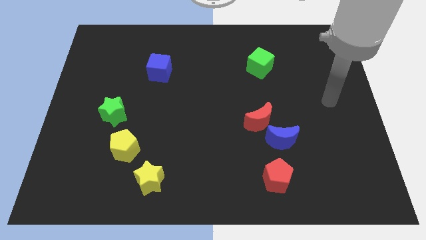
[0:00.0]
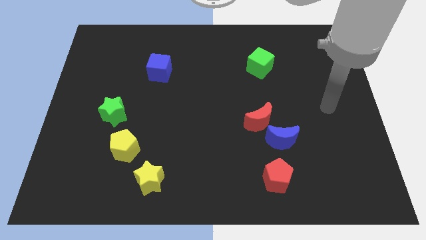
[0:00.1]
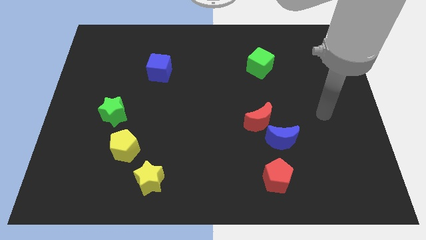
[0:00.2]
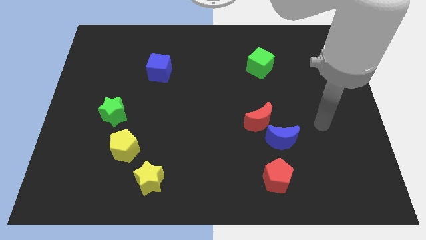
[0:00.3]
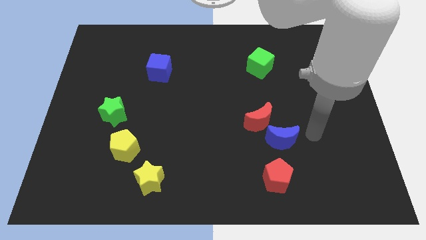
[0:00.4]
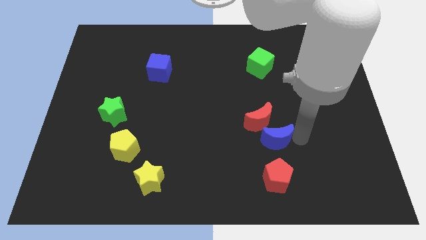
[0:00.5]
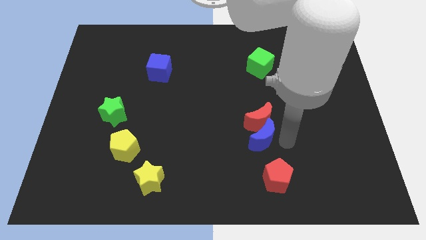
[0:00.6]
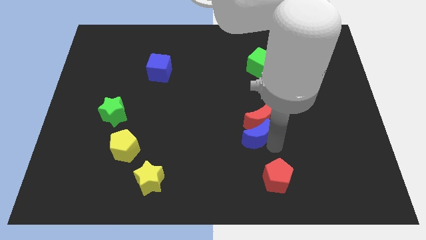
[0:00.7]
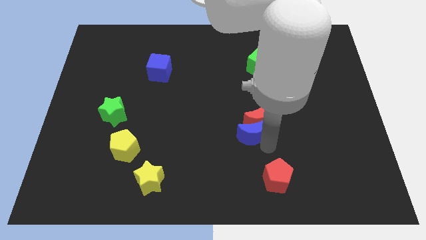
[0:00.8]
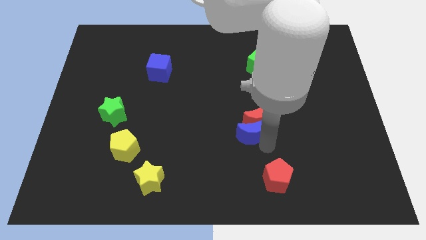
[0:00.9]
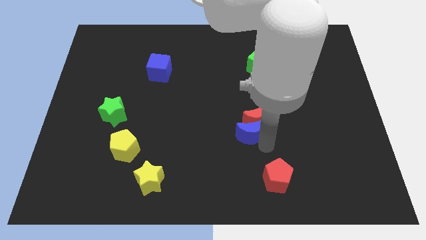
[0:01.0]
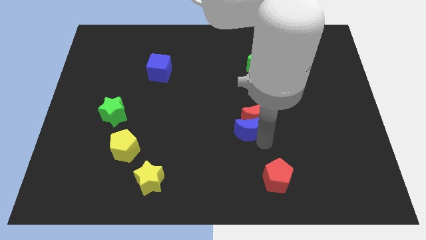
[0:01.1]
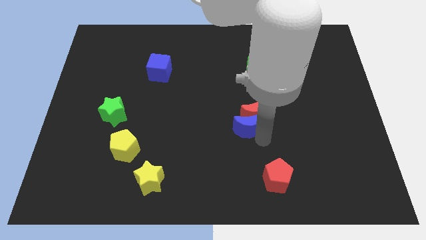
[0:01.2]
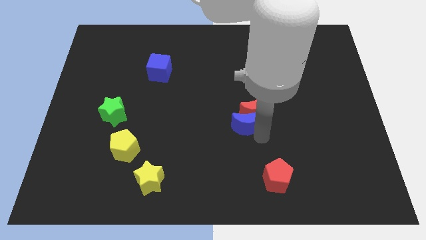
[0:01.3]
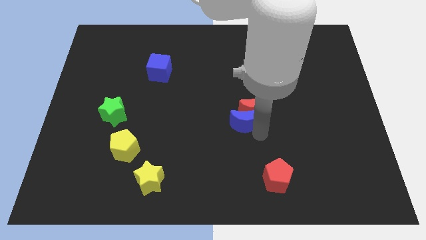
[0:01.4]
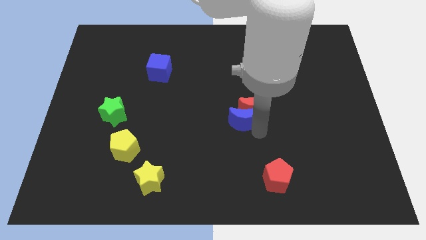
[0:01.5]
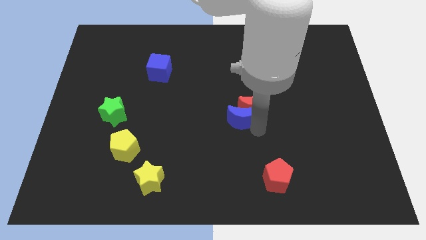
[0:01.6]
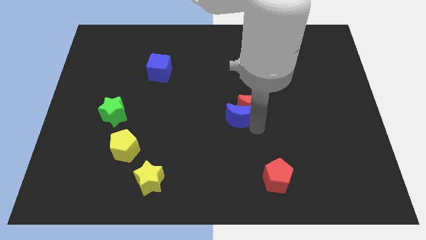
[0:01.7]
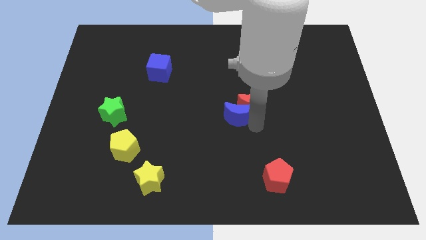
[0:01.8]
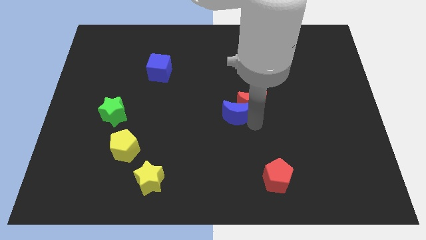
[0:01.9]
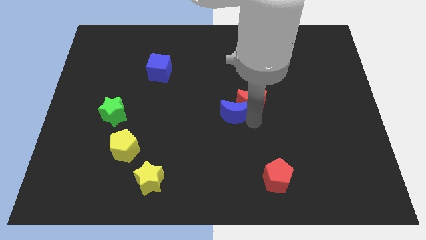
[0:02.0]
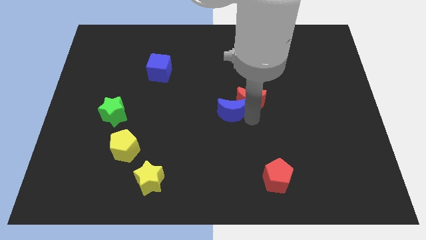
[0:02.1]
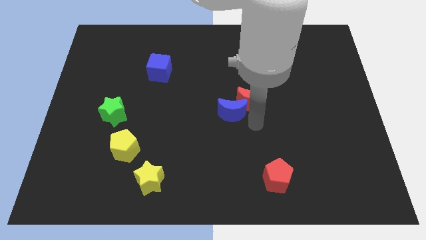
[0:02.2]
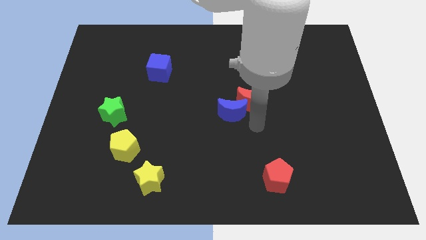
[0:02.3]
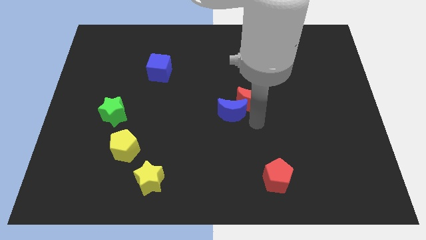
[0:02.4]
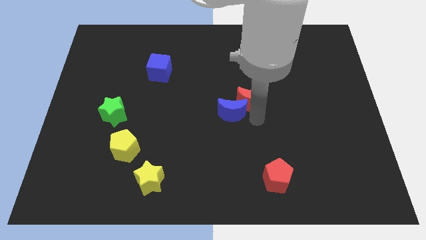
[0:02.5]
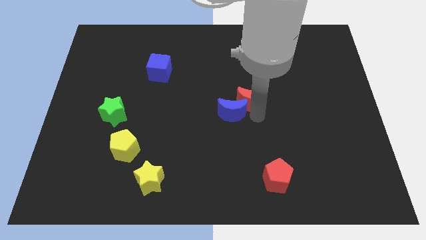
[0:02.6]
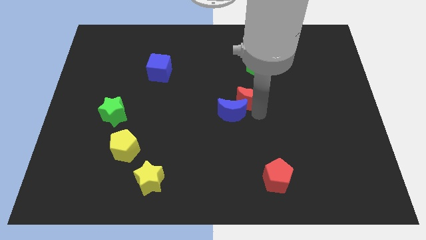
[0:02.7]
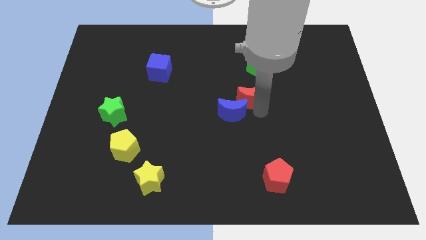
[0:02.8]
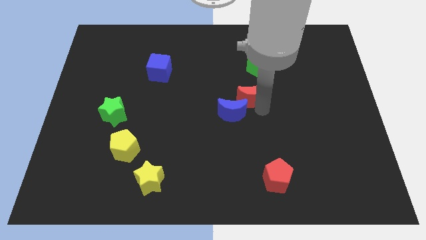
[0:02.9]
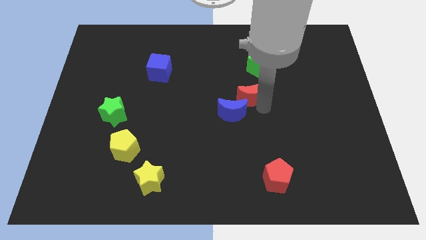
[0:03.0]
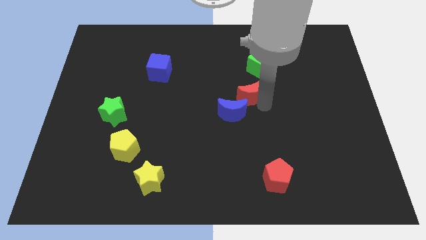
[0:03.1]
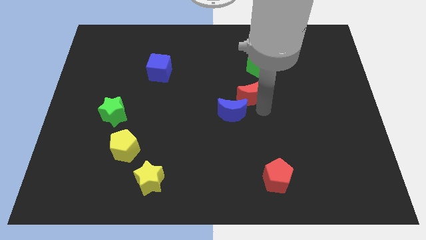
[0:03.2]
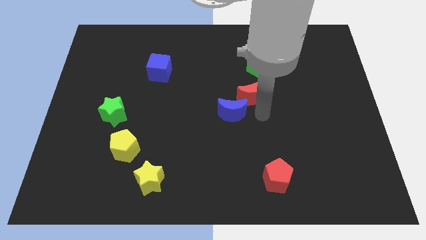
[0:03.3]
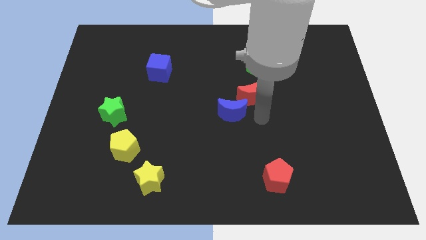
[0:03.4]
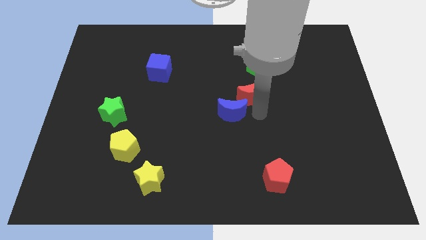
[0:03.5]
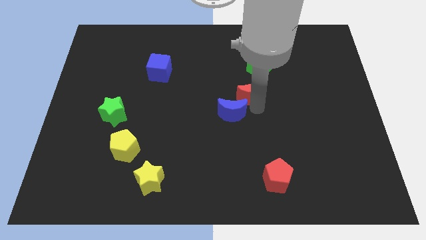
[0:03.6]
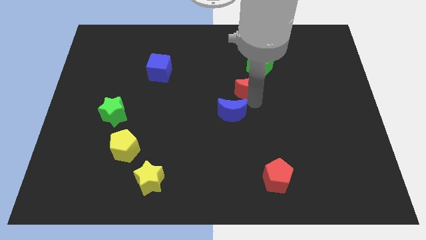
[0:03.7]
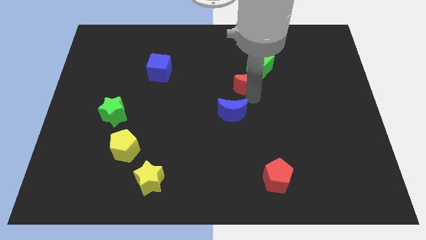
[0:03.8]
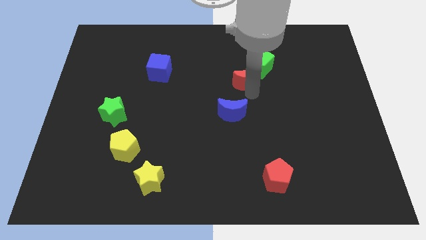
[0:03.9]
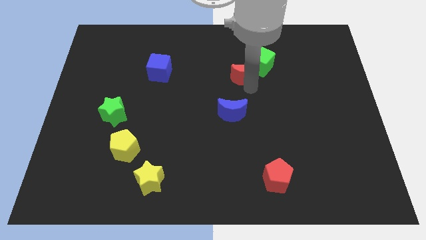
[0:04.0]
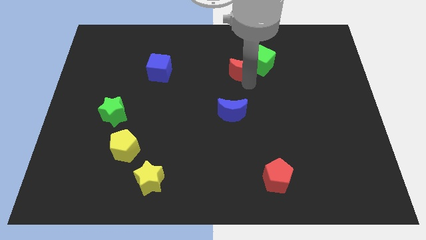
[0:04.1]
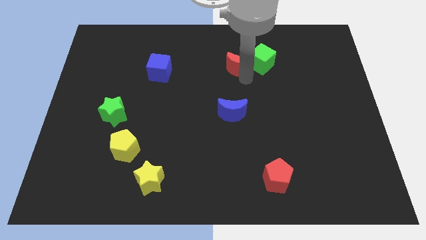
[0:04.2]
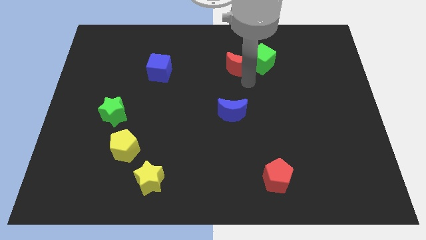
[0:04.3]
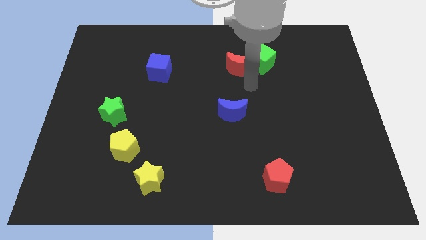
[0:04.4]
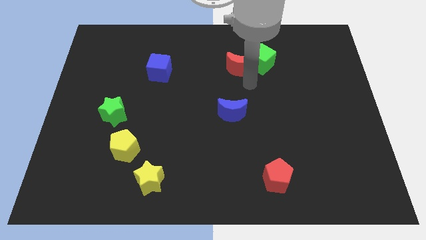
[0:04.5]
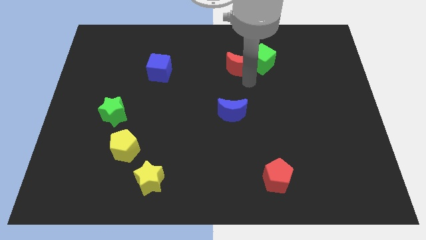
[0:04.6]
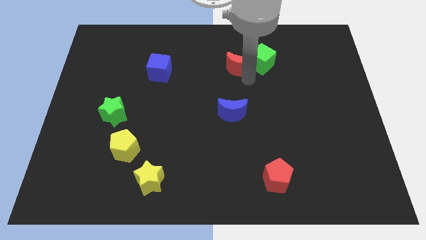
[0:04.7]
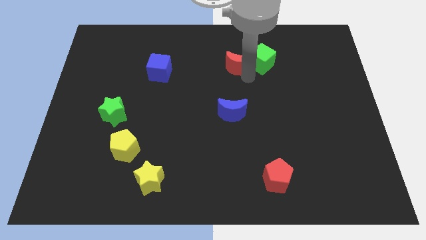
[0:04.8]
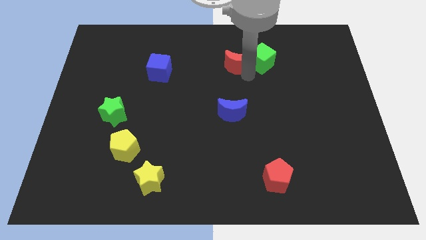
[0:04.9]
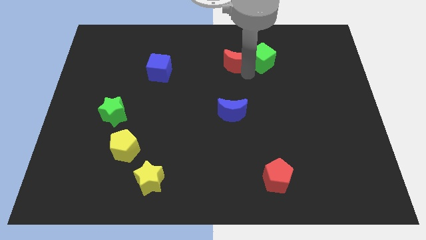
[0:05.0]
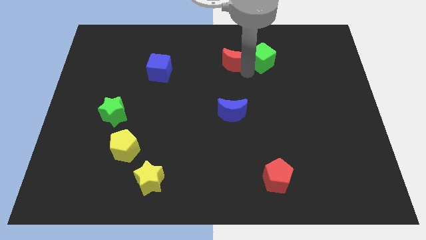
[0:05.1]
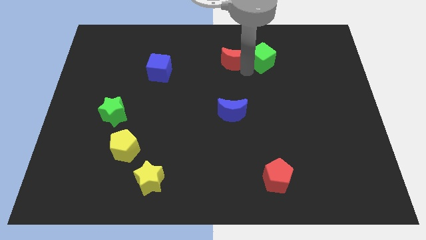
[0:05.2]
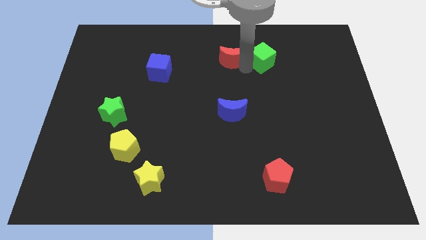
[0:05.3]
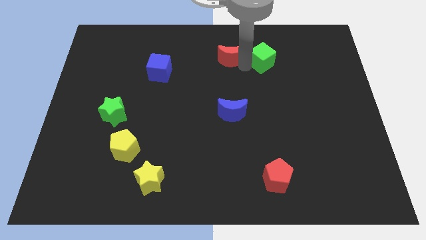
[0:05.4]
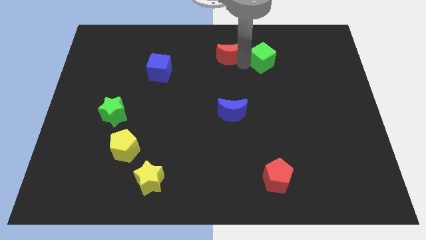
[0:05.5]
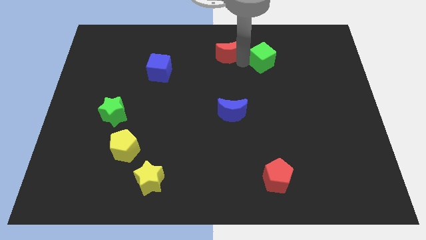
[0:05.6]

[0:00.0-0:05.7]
push the red moon to the top

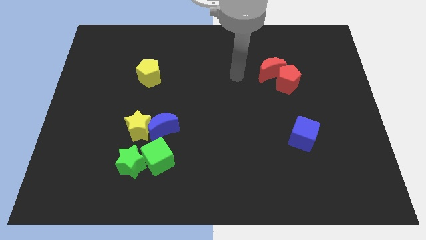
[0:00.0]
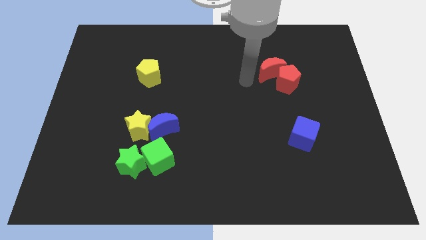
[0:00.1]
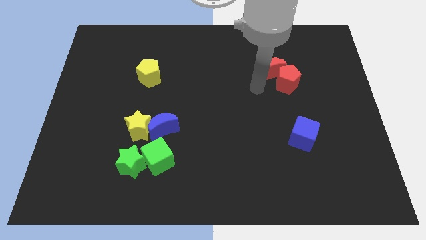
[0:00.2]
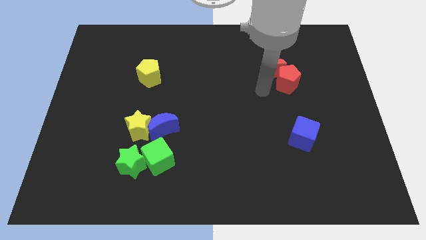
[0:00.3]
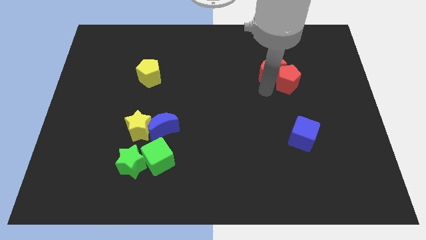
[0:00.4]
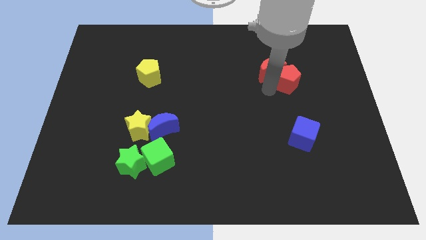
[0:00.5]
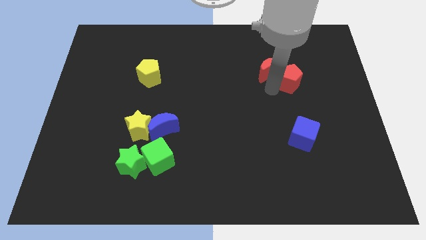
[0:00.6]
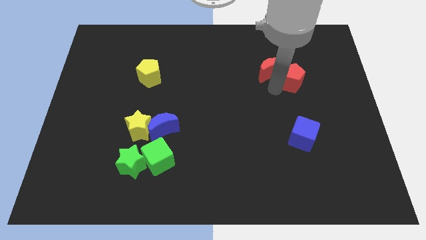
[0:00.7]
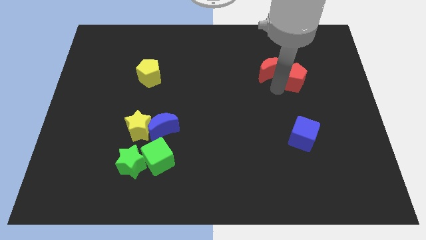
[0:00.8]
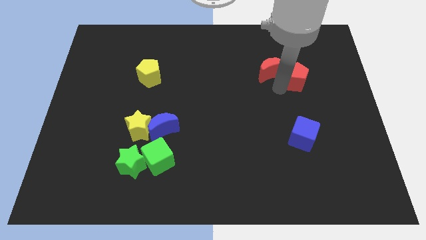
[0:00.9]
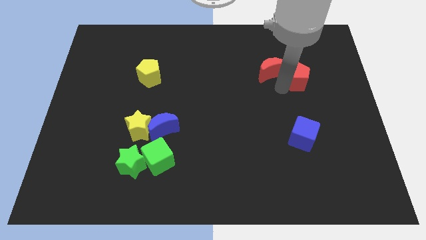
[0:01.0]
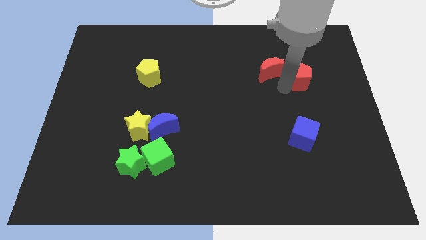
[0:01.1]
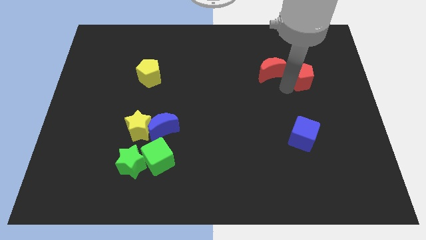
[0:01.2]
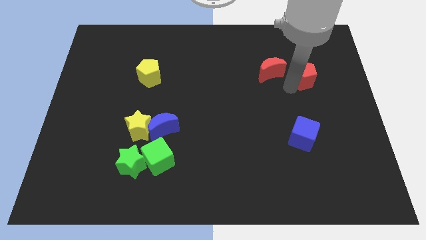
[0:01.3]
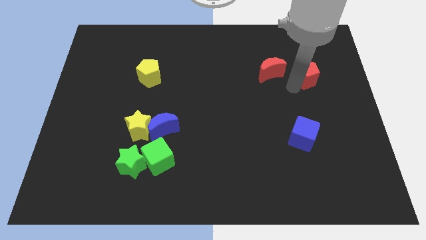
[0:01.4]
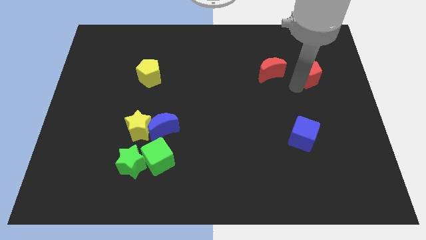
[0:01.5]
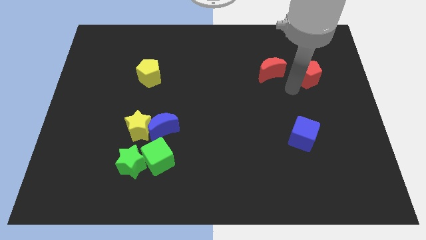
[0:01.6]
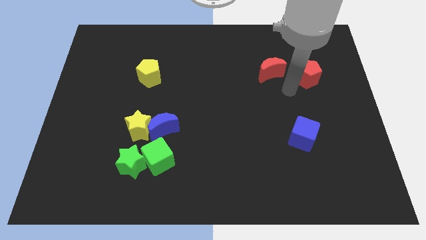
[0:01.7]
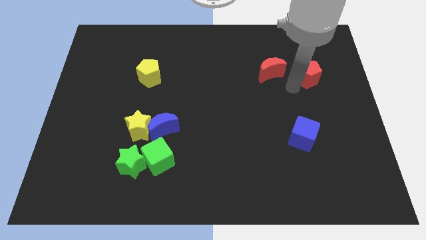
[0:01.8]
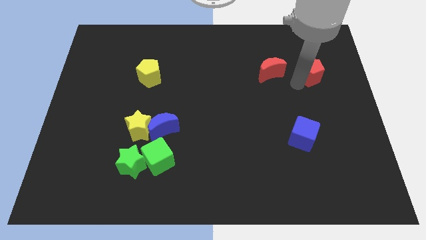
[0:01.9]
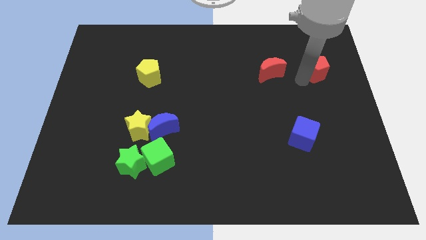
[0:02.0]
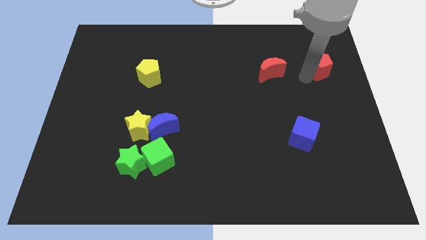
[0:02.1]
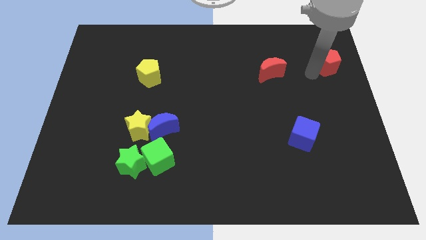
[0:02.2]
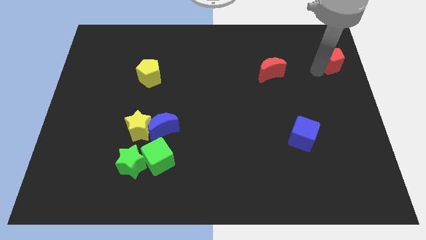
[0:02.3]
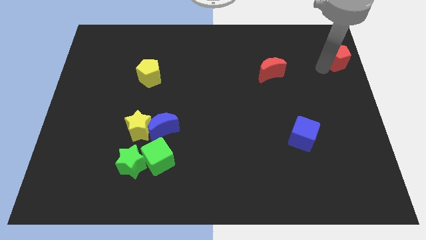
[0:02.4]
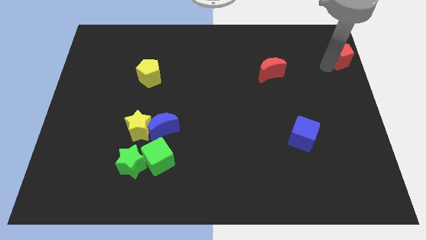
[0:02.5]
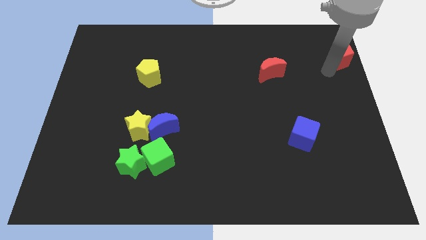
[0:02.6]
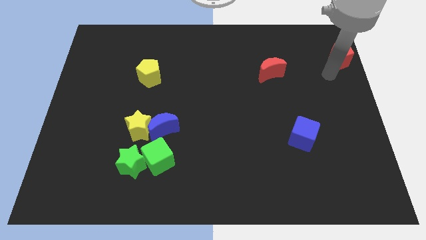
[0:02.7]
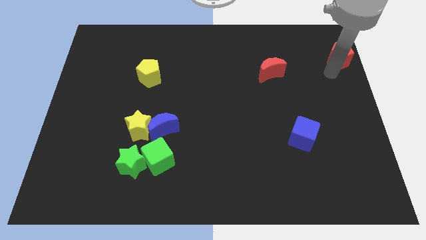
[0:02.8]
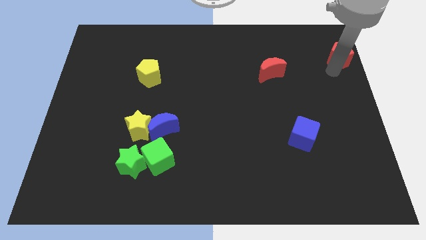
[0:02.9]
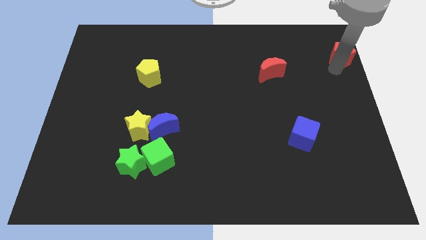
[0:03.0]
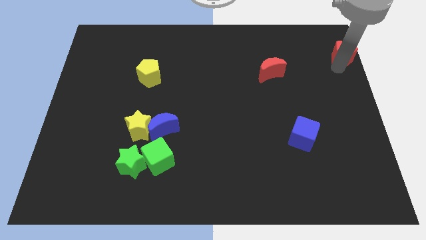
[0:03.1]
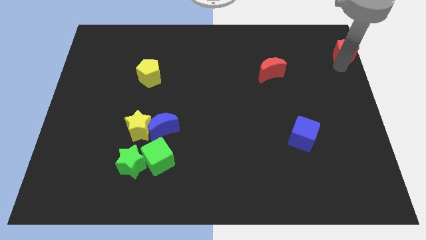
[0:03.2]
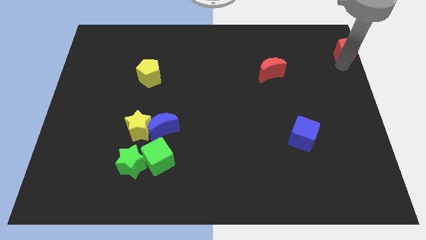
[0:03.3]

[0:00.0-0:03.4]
move the red pentagon to the top right corner
